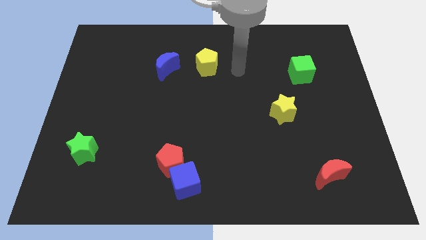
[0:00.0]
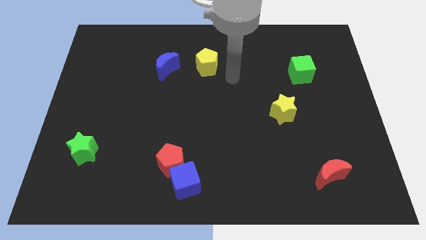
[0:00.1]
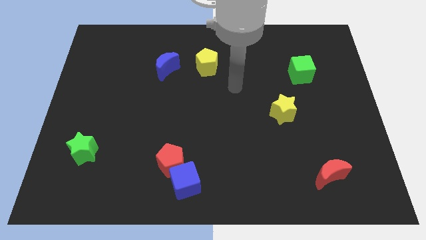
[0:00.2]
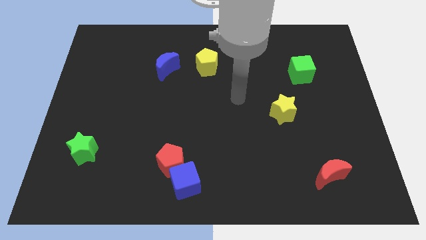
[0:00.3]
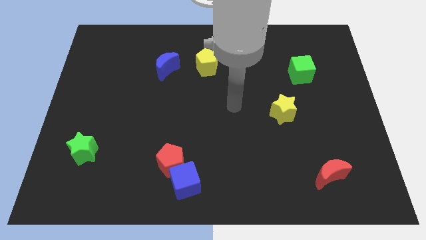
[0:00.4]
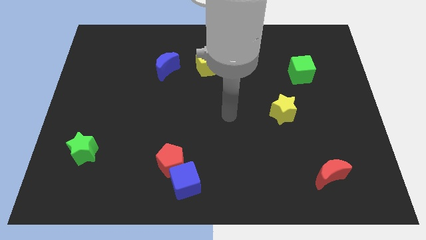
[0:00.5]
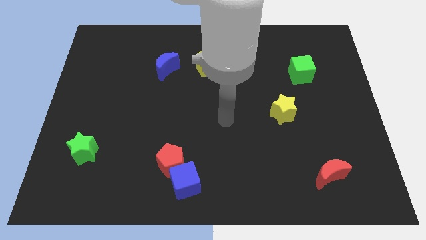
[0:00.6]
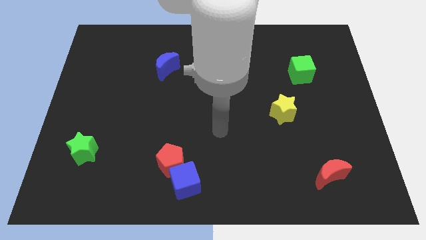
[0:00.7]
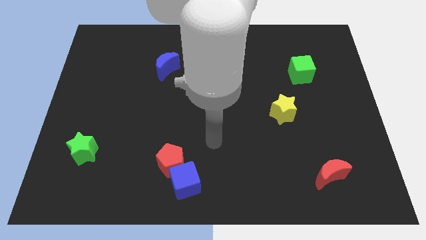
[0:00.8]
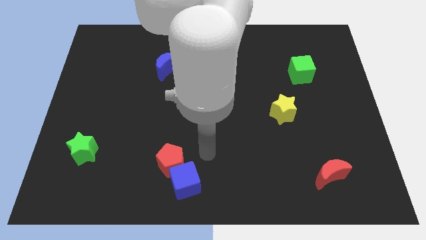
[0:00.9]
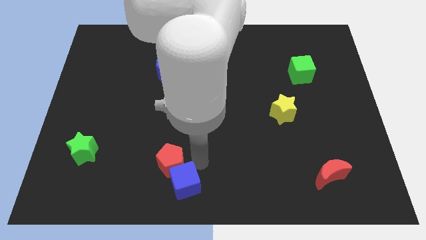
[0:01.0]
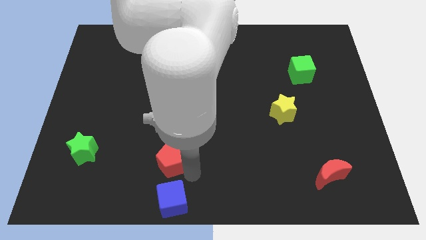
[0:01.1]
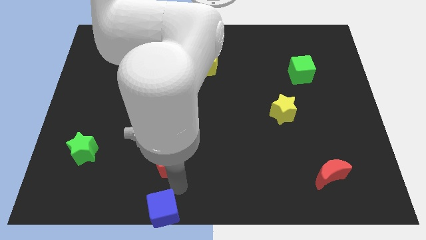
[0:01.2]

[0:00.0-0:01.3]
pull the red pentagon apart from the blue cube

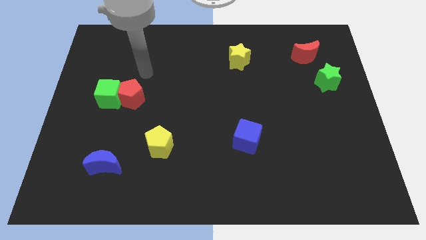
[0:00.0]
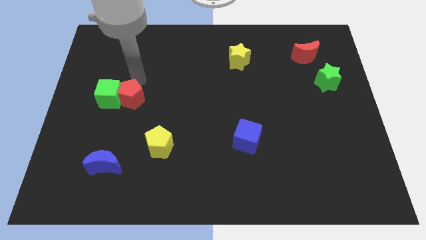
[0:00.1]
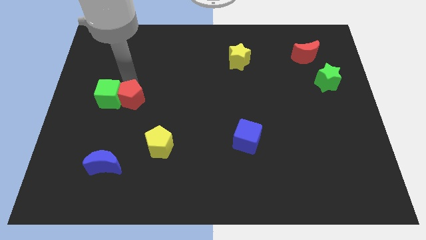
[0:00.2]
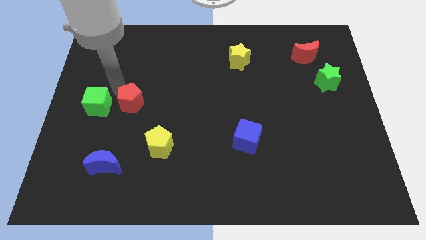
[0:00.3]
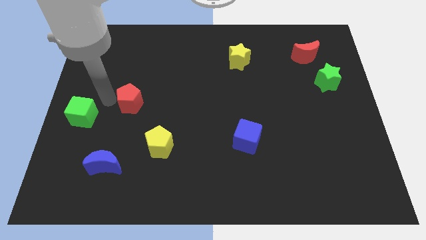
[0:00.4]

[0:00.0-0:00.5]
move the red pentagon away from the green cube

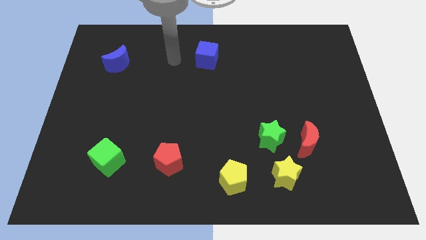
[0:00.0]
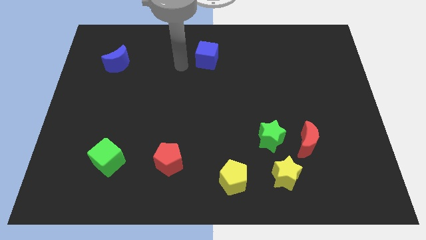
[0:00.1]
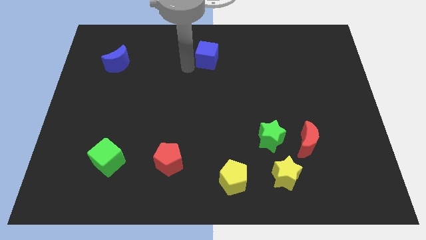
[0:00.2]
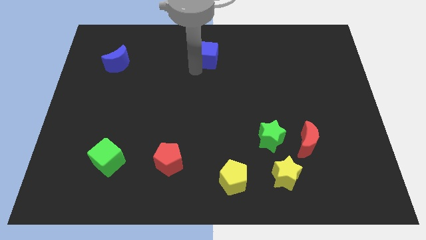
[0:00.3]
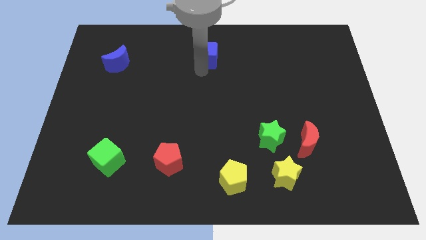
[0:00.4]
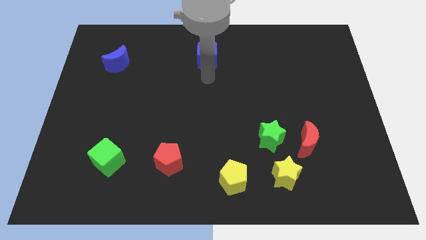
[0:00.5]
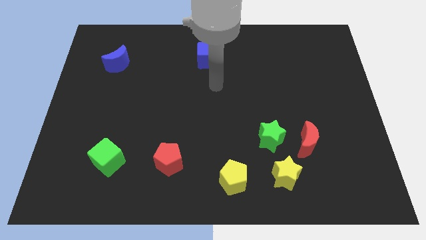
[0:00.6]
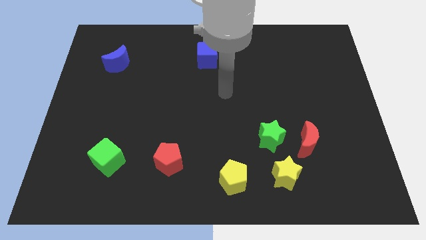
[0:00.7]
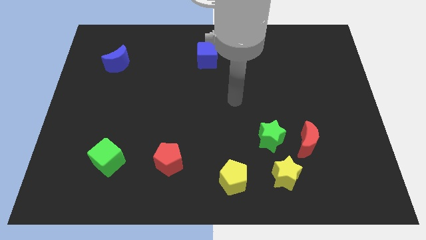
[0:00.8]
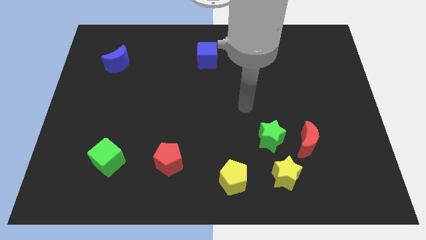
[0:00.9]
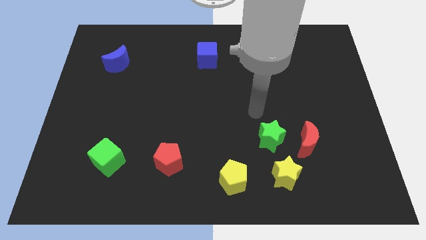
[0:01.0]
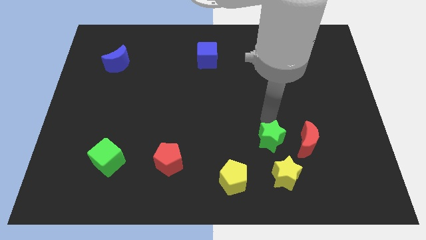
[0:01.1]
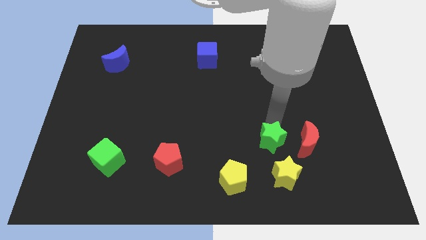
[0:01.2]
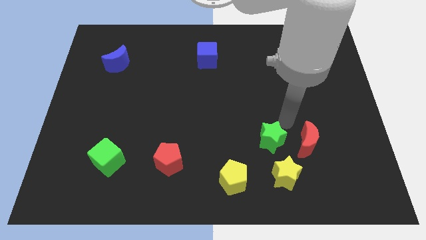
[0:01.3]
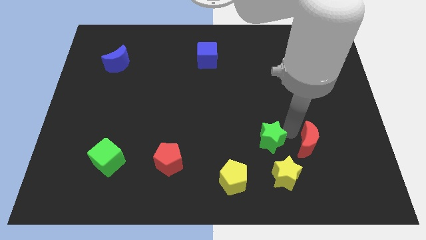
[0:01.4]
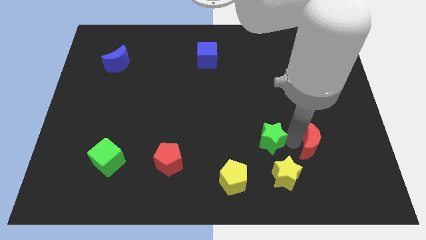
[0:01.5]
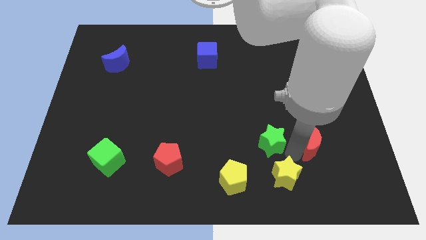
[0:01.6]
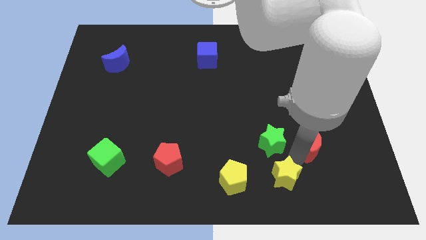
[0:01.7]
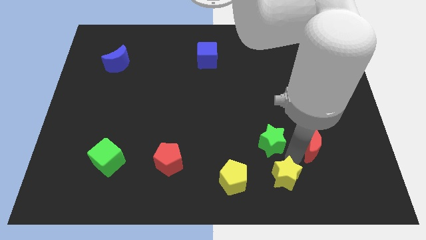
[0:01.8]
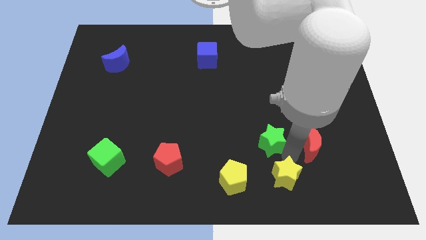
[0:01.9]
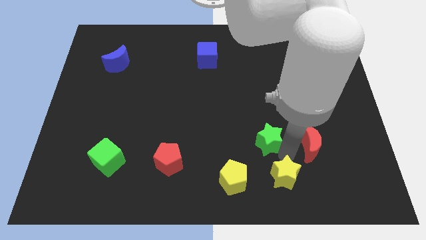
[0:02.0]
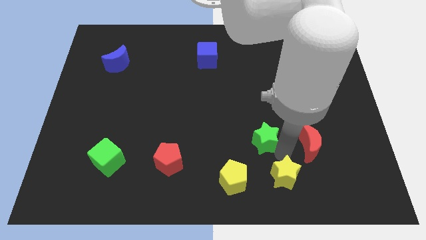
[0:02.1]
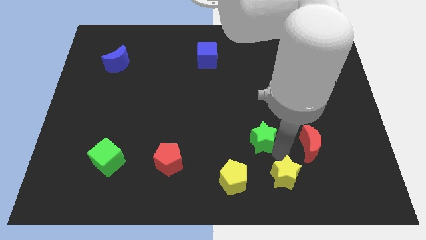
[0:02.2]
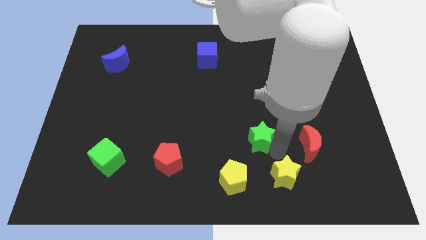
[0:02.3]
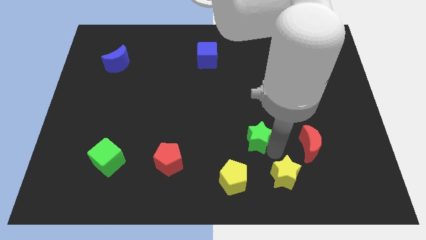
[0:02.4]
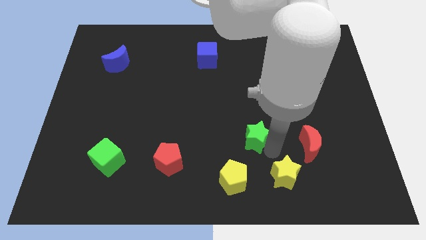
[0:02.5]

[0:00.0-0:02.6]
pull the green star apart from the red moon and yellow star

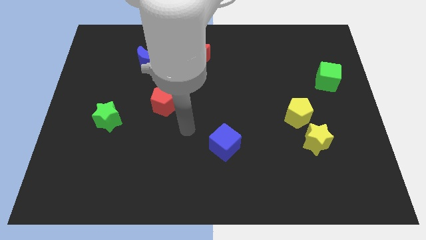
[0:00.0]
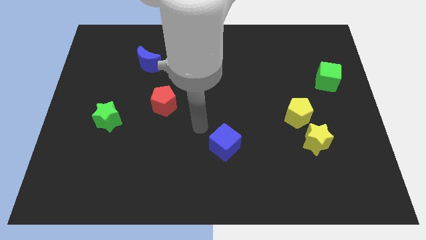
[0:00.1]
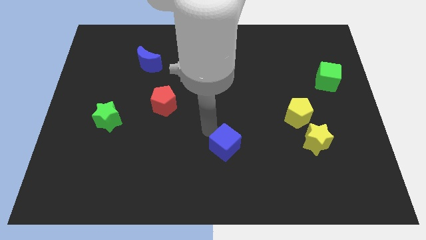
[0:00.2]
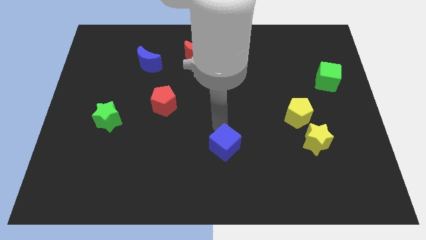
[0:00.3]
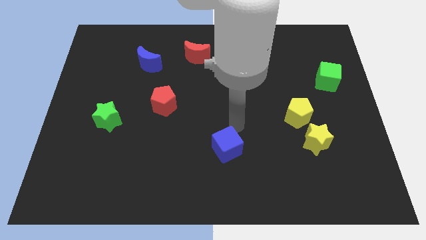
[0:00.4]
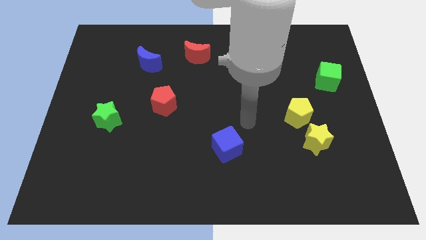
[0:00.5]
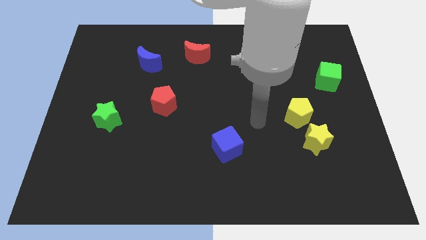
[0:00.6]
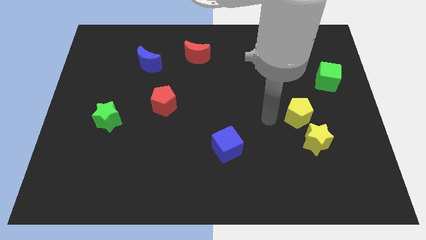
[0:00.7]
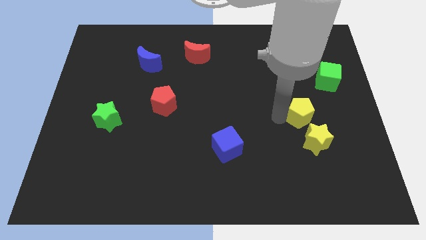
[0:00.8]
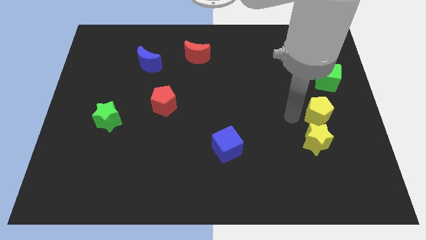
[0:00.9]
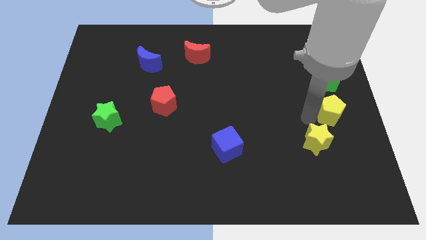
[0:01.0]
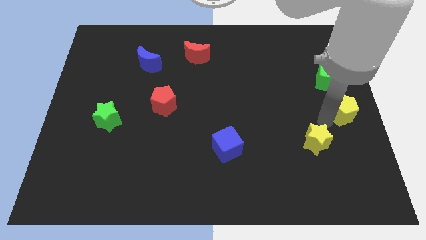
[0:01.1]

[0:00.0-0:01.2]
pull the yellow star apart from the yellow pentagon

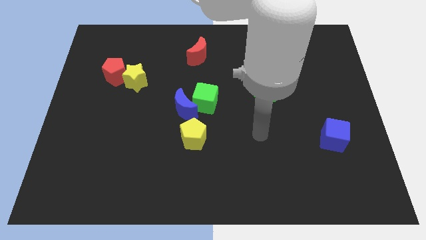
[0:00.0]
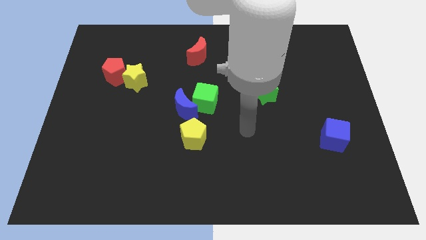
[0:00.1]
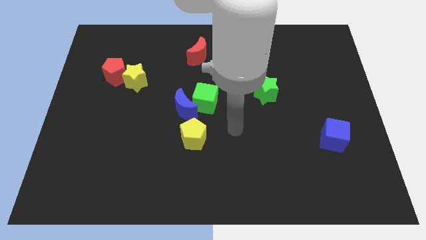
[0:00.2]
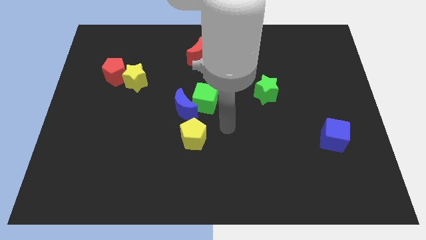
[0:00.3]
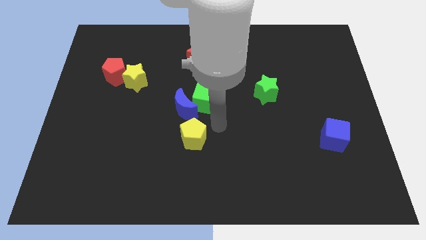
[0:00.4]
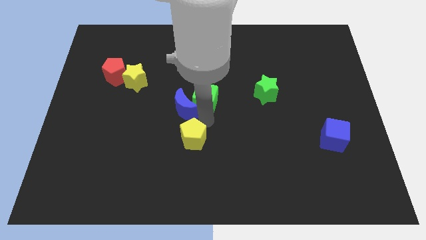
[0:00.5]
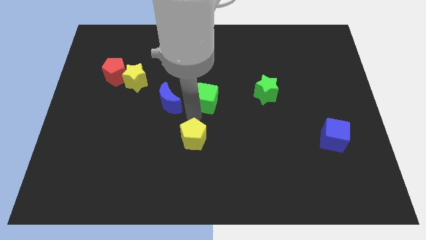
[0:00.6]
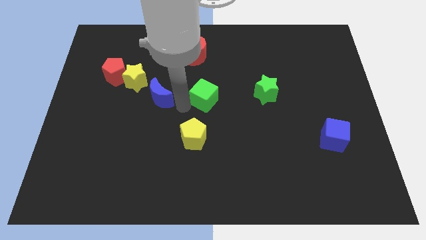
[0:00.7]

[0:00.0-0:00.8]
pull the green cube apart from the blue moon

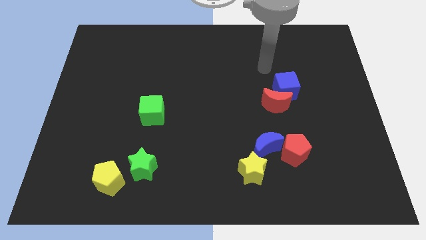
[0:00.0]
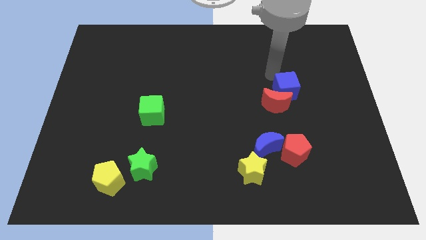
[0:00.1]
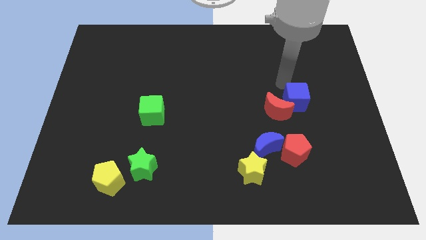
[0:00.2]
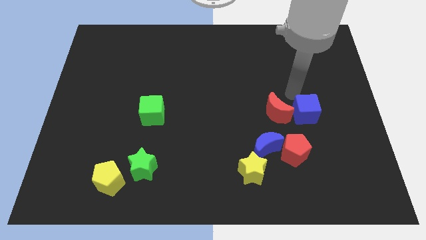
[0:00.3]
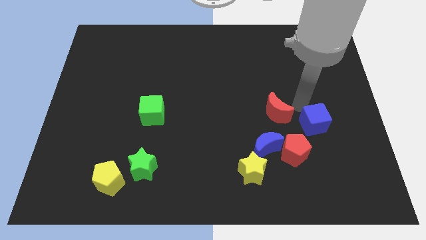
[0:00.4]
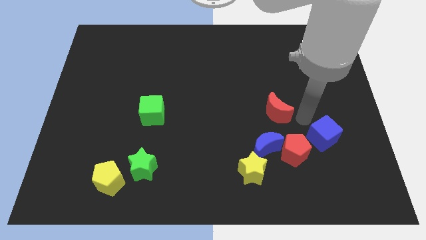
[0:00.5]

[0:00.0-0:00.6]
move the red moon away from the blue cube

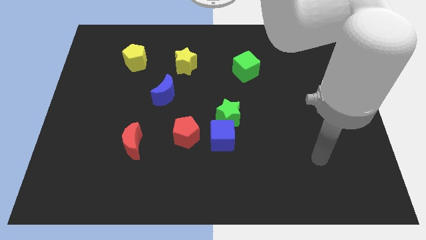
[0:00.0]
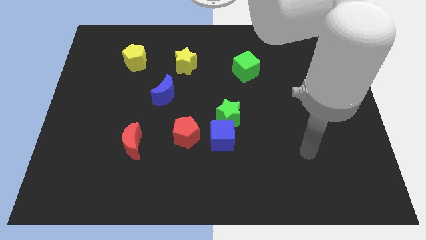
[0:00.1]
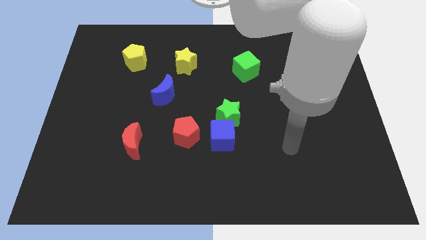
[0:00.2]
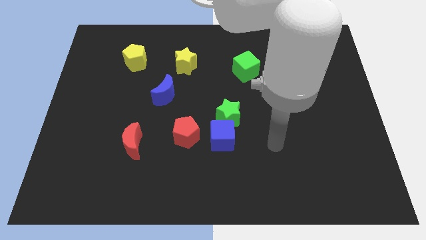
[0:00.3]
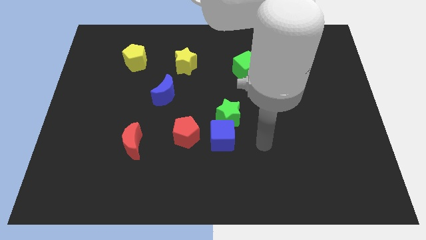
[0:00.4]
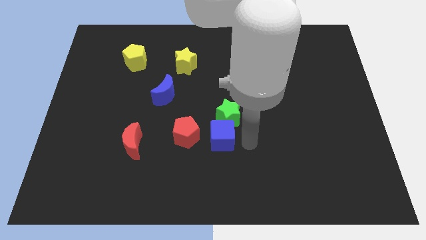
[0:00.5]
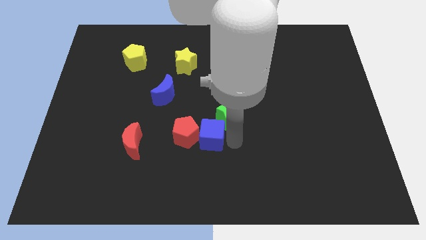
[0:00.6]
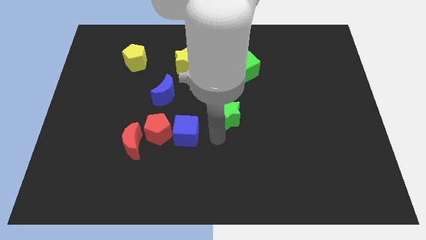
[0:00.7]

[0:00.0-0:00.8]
separate the green star from the blue cube

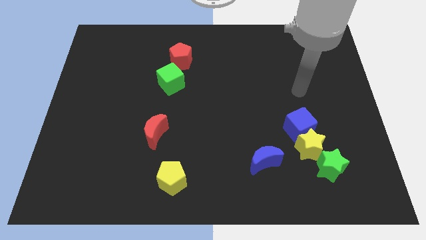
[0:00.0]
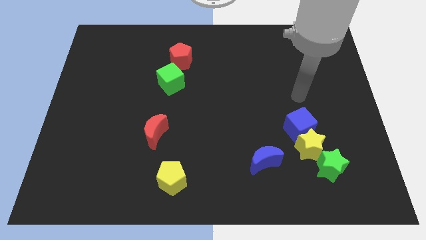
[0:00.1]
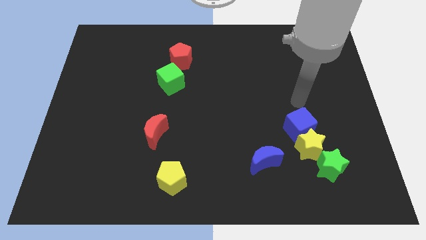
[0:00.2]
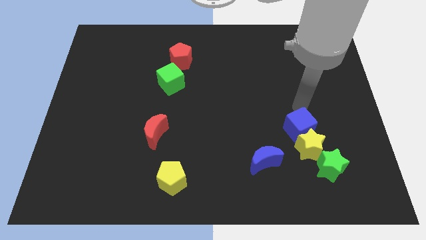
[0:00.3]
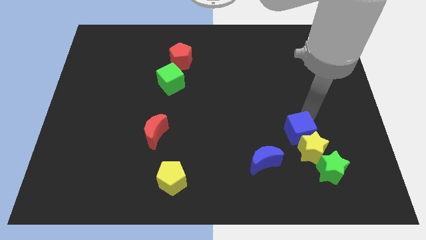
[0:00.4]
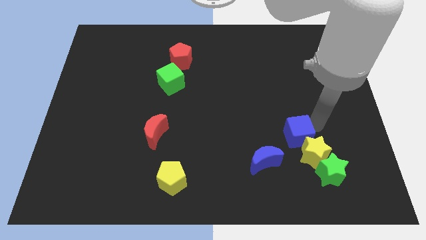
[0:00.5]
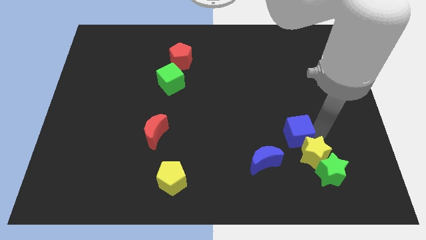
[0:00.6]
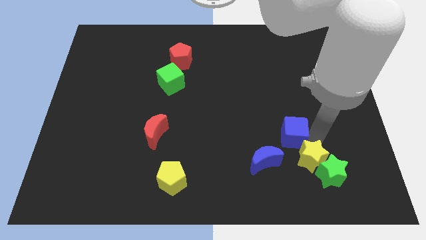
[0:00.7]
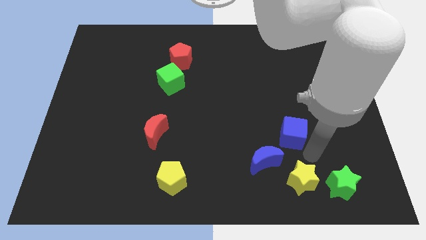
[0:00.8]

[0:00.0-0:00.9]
pull the blue cube apart from the yellow star

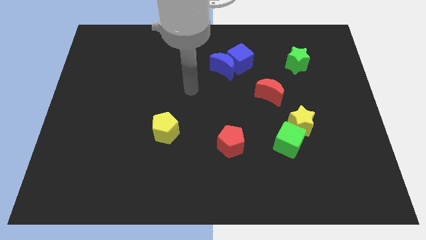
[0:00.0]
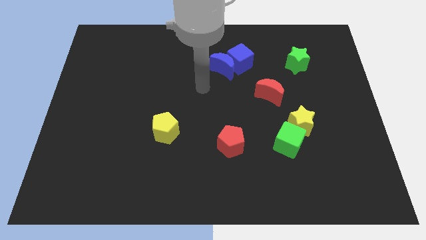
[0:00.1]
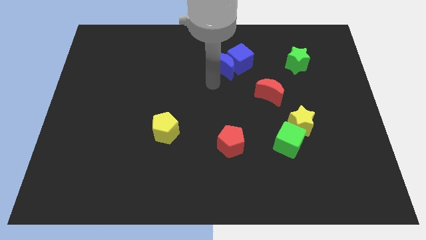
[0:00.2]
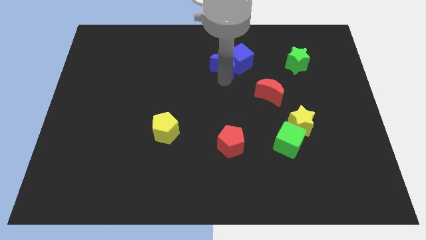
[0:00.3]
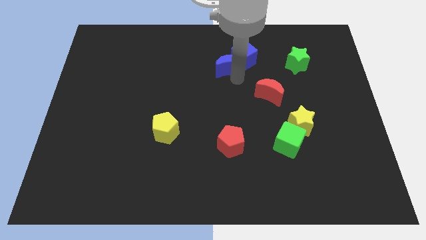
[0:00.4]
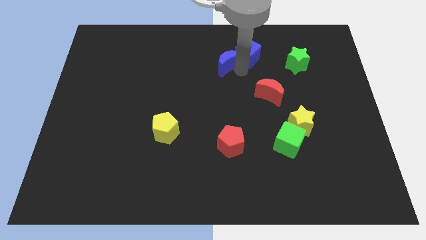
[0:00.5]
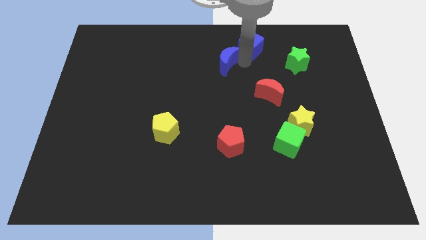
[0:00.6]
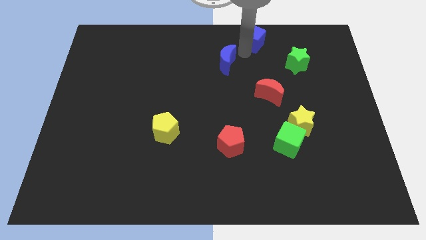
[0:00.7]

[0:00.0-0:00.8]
separate the blue moon from the blue cube
